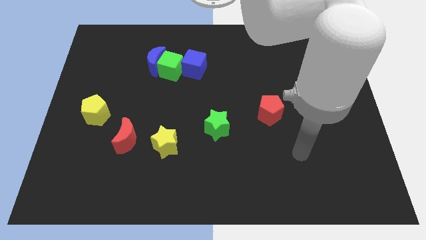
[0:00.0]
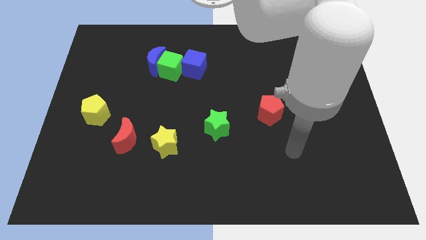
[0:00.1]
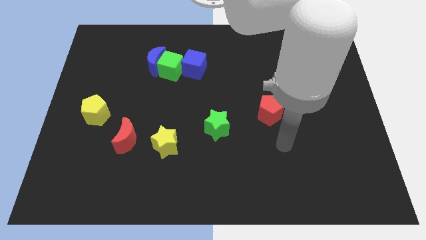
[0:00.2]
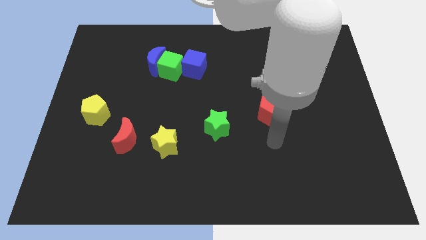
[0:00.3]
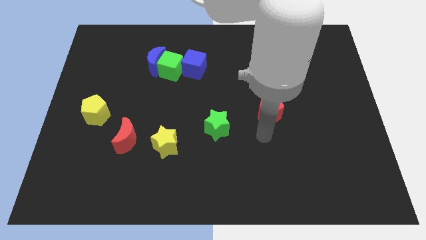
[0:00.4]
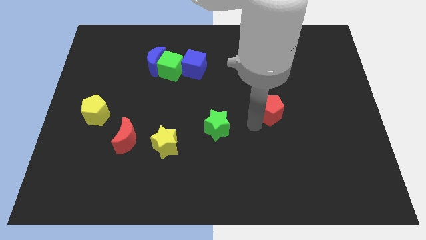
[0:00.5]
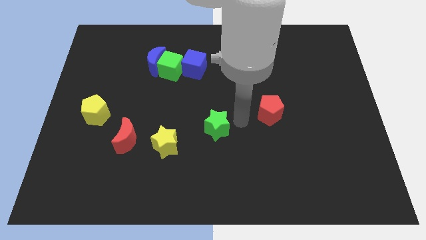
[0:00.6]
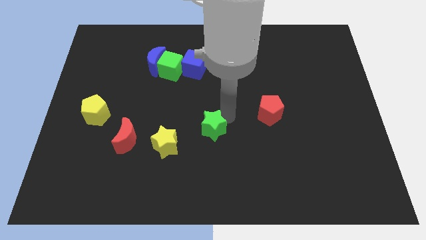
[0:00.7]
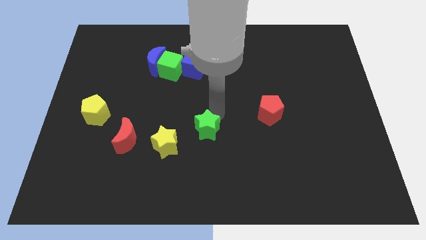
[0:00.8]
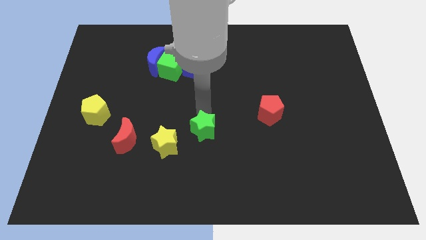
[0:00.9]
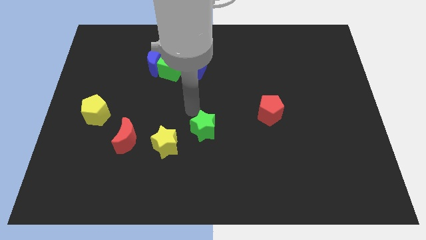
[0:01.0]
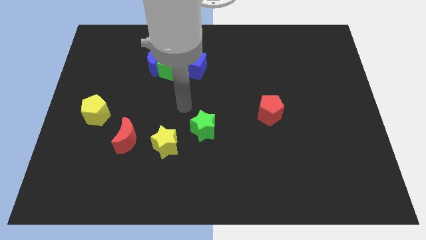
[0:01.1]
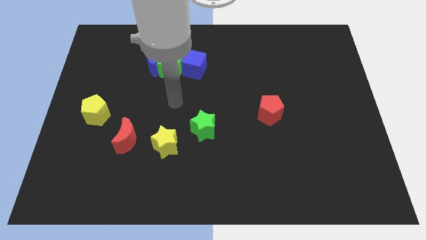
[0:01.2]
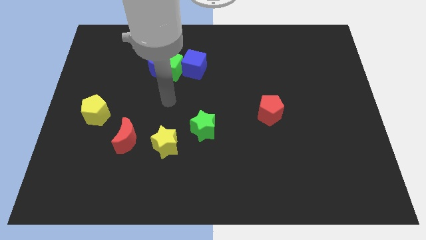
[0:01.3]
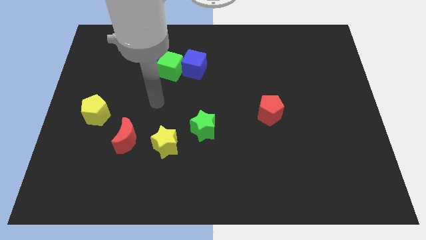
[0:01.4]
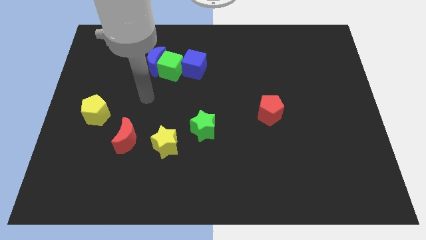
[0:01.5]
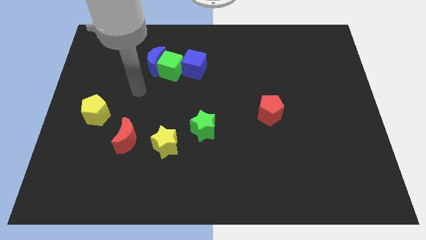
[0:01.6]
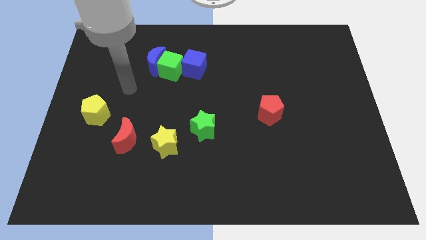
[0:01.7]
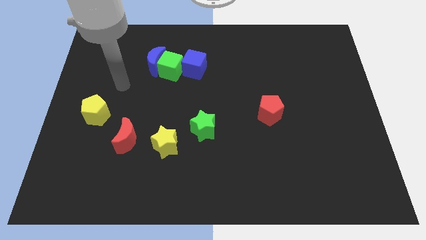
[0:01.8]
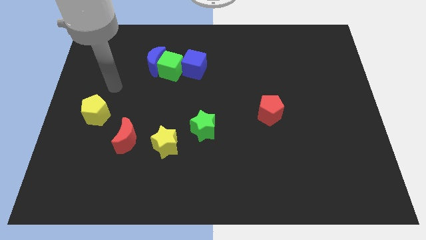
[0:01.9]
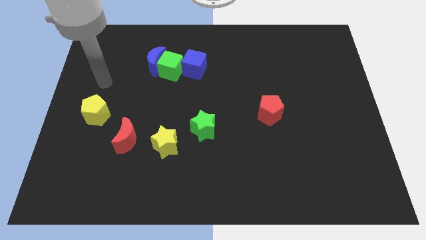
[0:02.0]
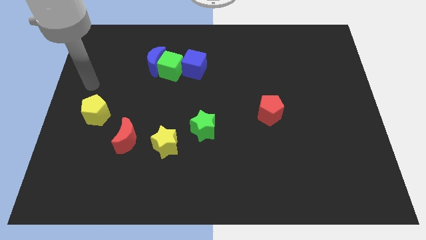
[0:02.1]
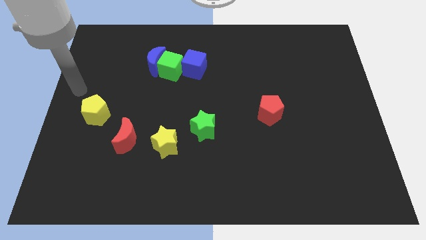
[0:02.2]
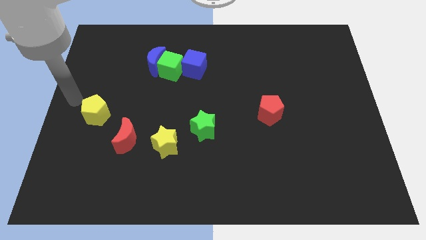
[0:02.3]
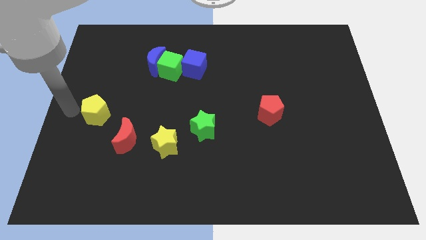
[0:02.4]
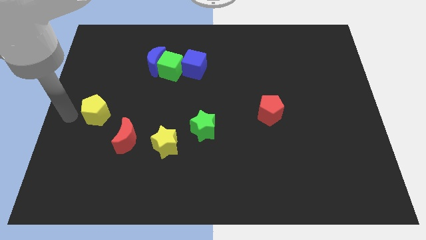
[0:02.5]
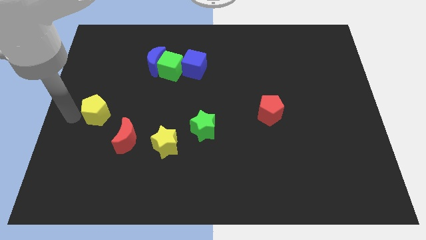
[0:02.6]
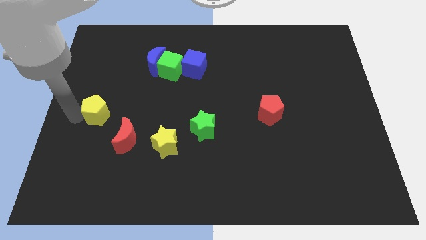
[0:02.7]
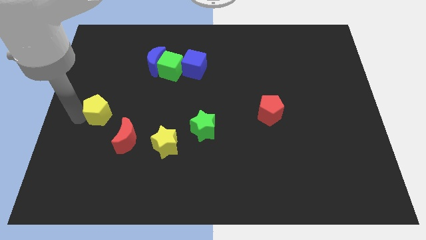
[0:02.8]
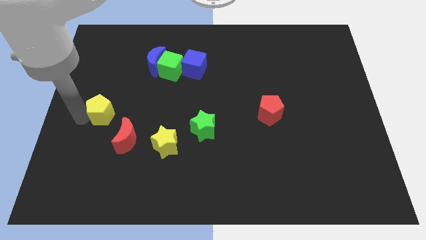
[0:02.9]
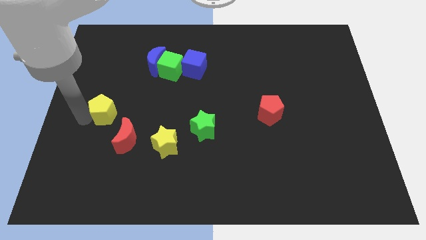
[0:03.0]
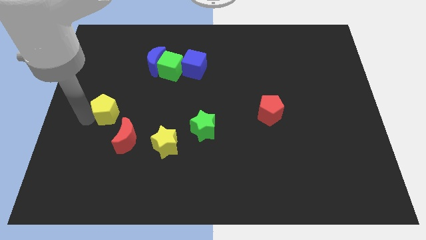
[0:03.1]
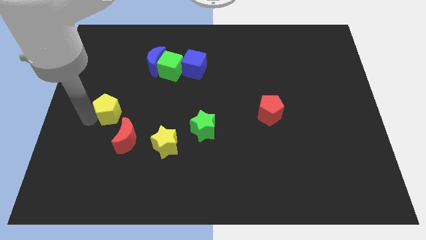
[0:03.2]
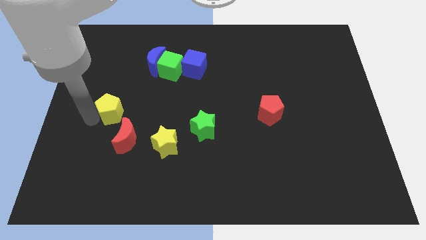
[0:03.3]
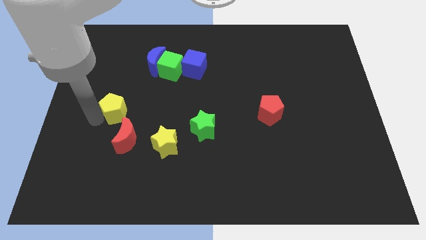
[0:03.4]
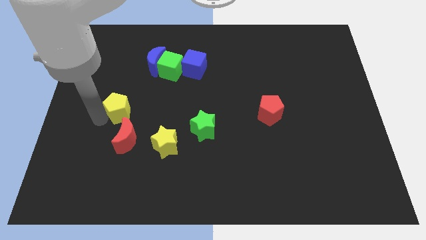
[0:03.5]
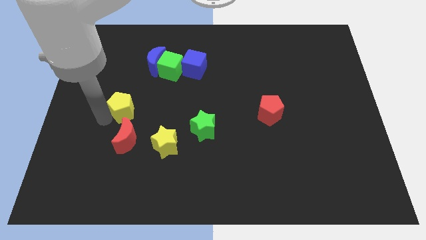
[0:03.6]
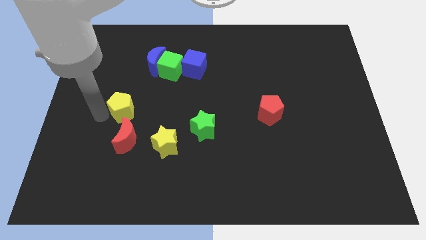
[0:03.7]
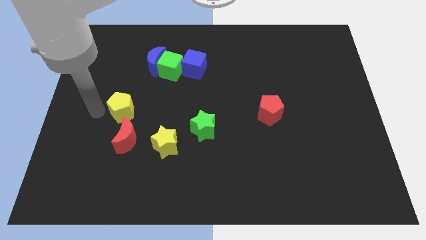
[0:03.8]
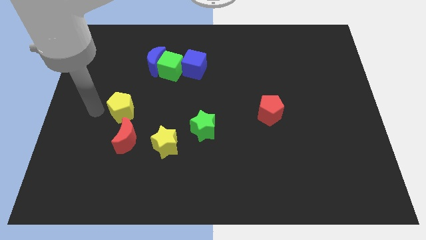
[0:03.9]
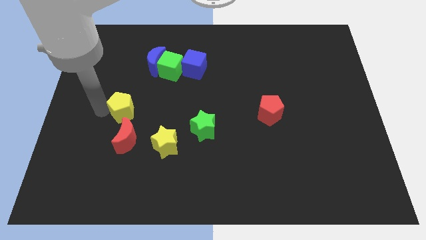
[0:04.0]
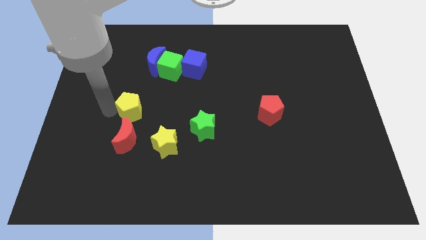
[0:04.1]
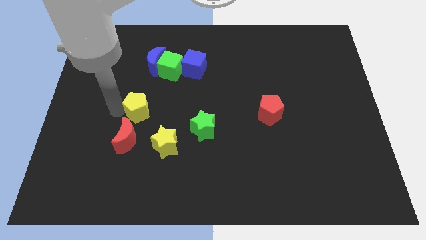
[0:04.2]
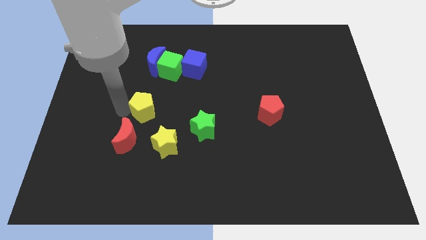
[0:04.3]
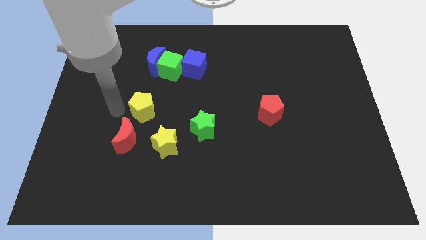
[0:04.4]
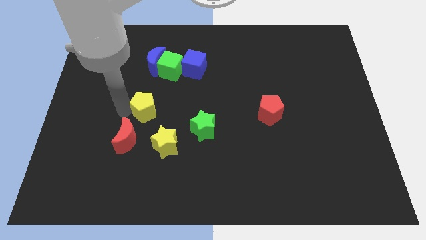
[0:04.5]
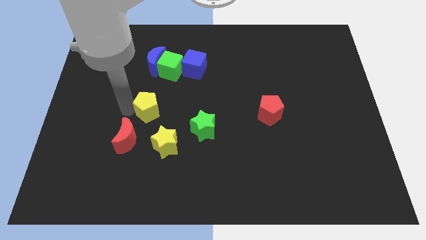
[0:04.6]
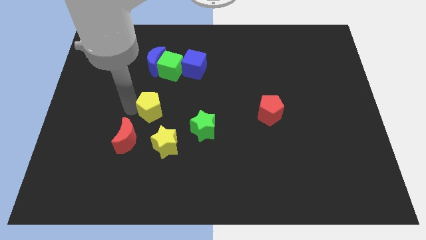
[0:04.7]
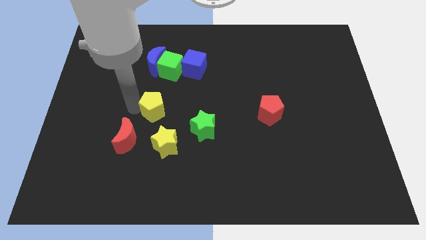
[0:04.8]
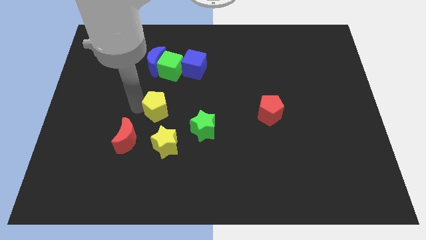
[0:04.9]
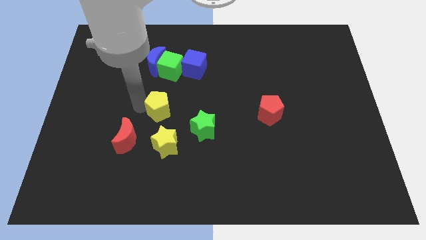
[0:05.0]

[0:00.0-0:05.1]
put the yellow pentagon to the center of the board

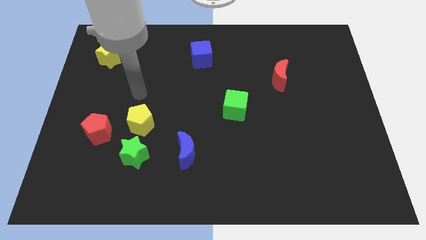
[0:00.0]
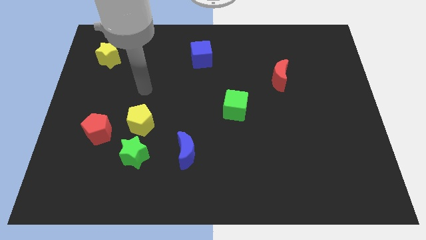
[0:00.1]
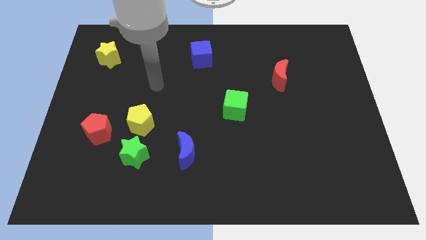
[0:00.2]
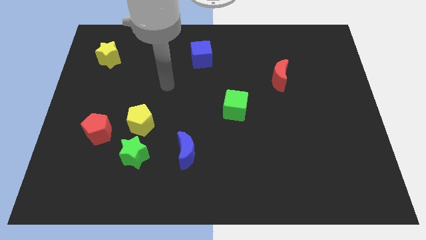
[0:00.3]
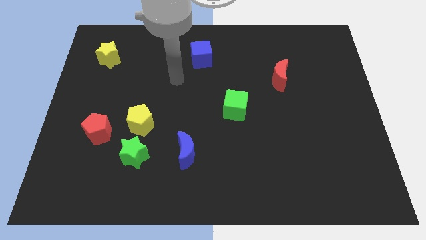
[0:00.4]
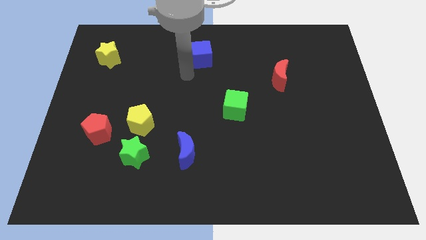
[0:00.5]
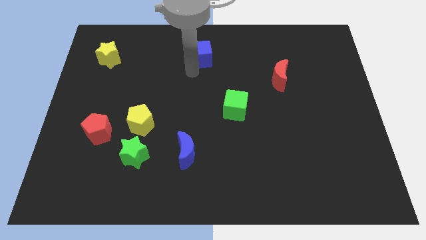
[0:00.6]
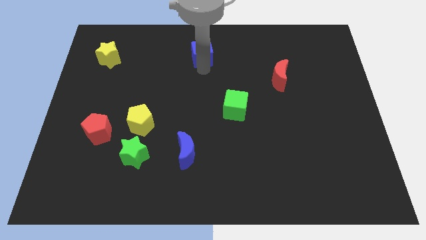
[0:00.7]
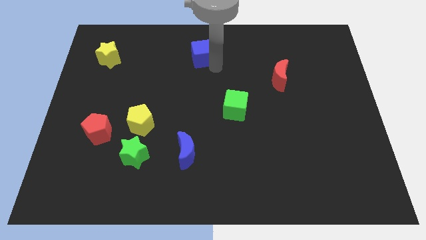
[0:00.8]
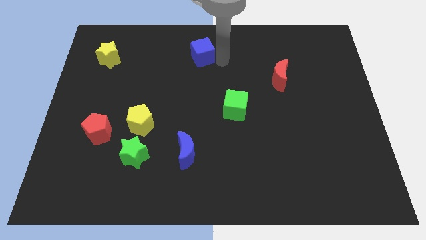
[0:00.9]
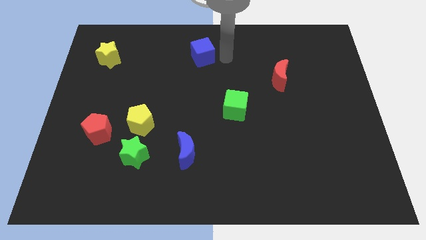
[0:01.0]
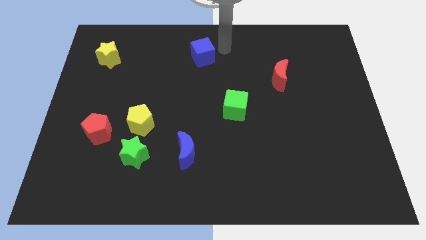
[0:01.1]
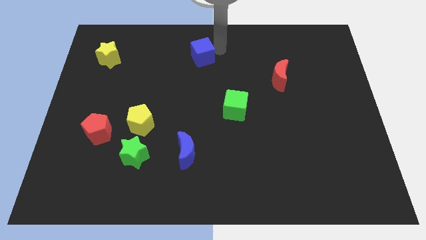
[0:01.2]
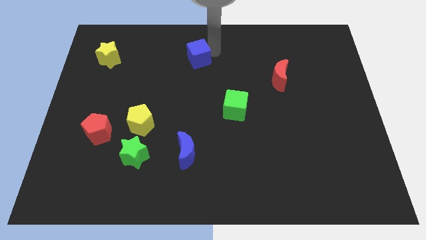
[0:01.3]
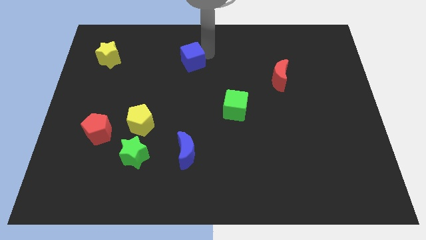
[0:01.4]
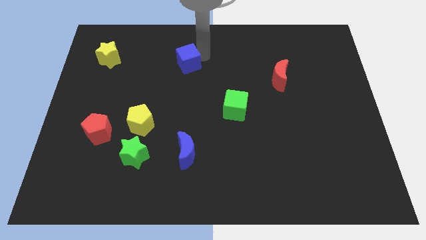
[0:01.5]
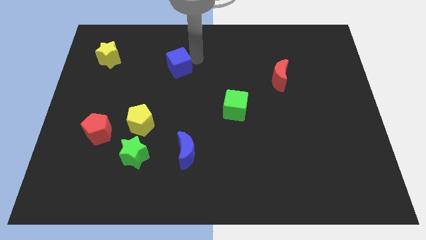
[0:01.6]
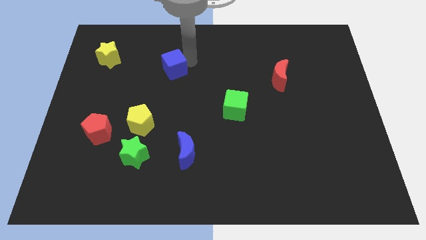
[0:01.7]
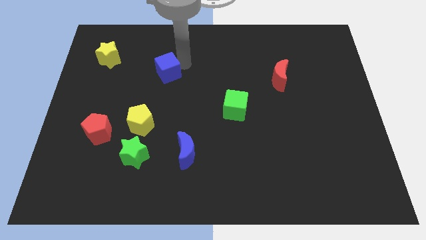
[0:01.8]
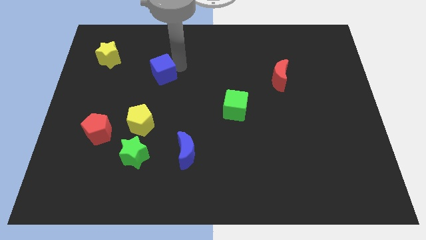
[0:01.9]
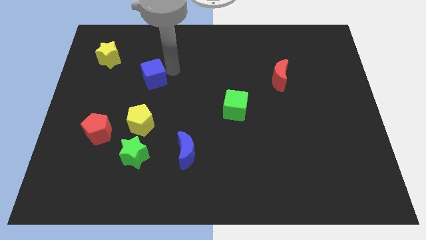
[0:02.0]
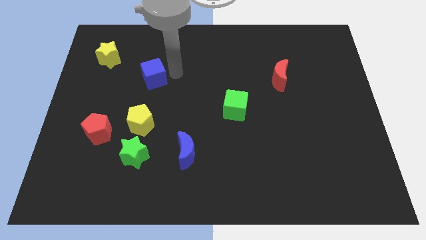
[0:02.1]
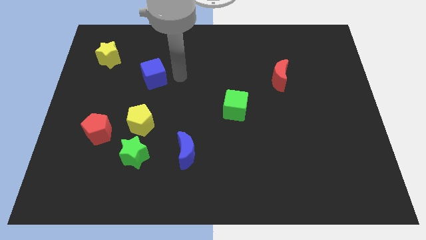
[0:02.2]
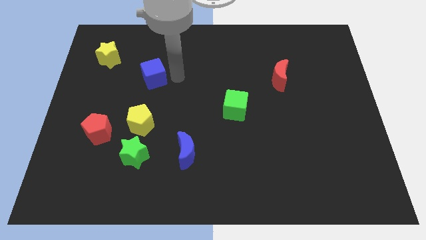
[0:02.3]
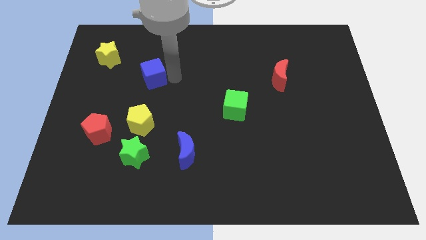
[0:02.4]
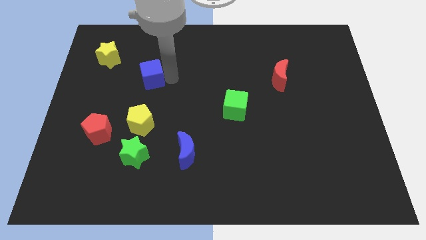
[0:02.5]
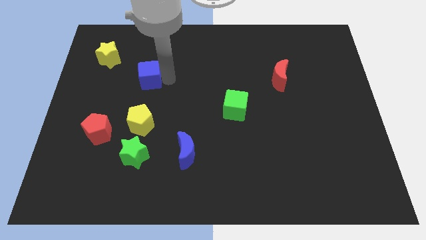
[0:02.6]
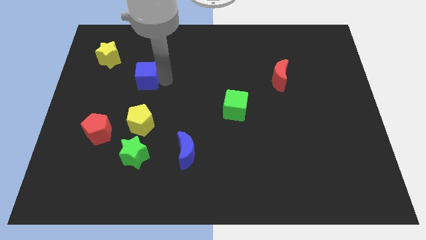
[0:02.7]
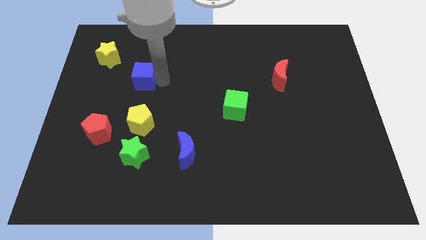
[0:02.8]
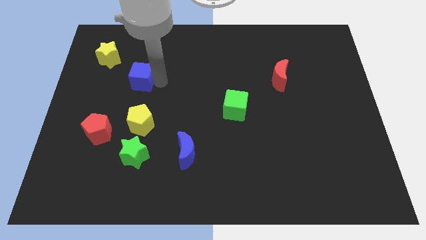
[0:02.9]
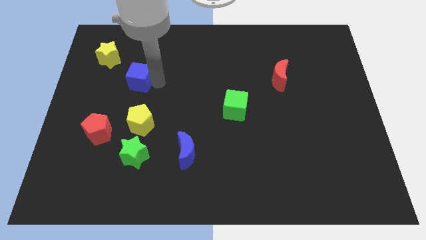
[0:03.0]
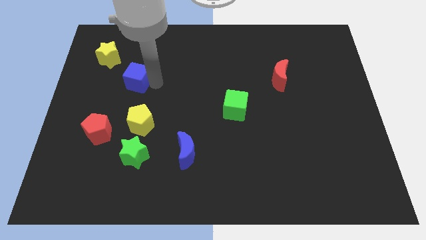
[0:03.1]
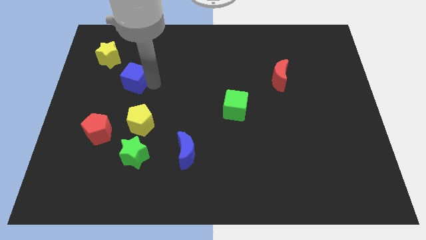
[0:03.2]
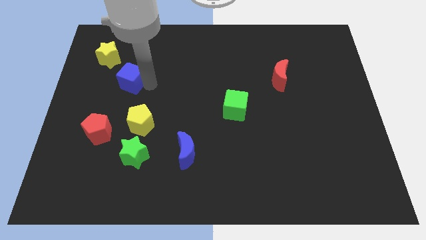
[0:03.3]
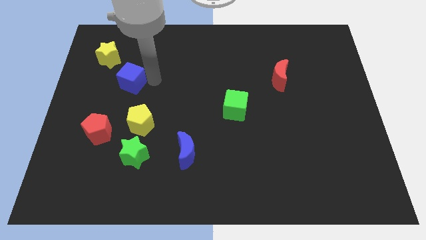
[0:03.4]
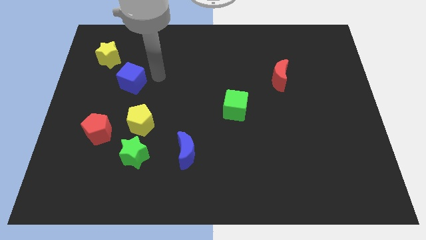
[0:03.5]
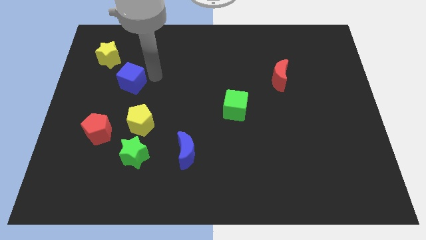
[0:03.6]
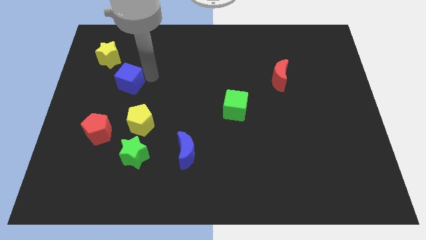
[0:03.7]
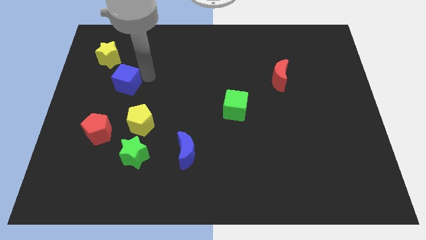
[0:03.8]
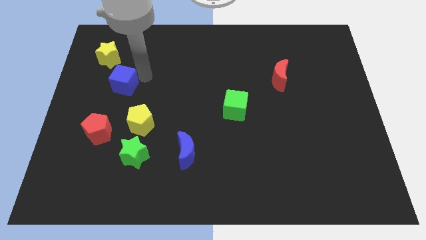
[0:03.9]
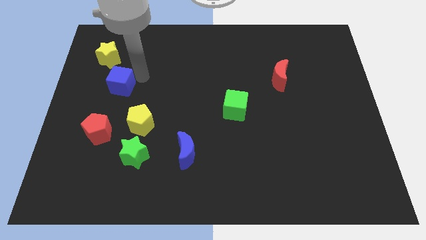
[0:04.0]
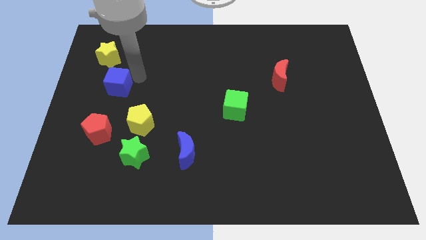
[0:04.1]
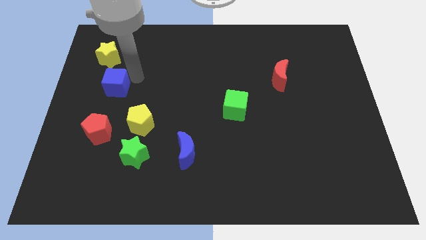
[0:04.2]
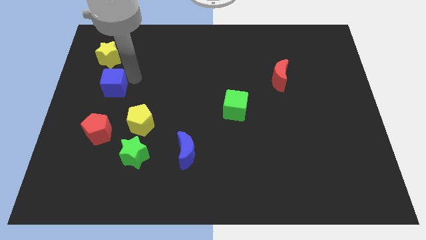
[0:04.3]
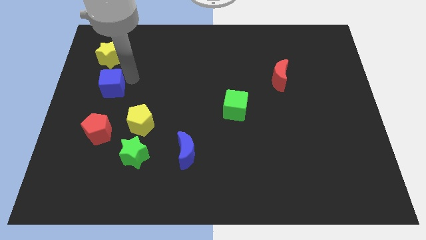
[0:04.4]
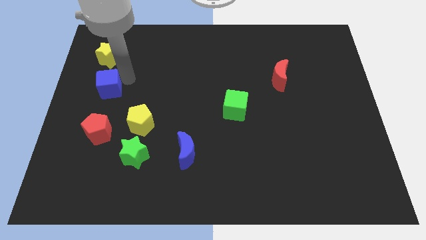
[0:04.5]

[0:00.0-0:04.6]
move the blue cube to the center left
